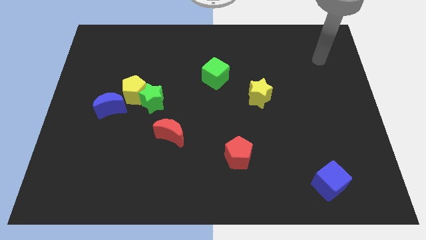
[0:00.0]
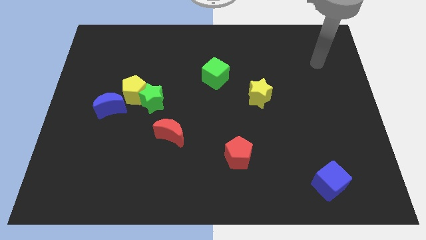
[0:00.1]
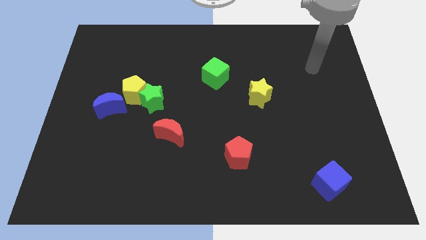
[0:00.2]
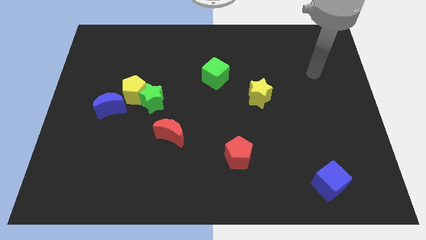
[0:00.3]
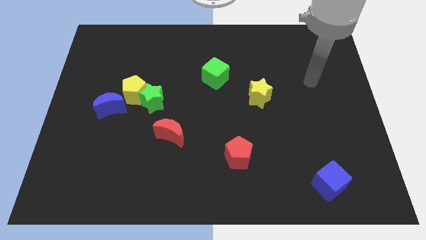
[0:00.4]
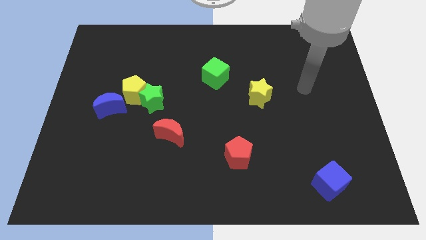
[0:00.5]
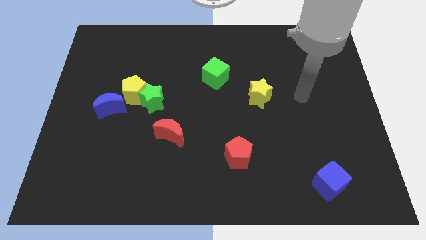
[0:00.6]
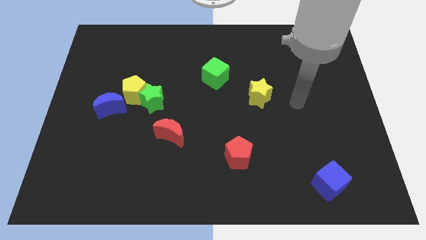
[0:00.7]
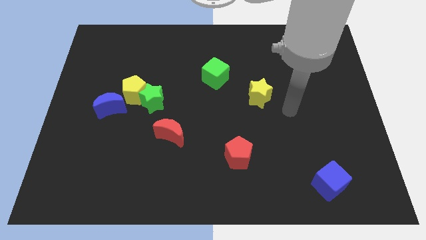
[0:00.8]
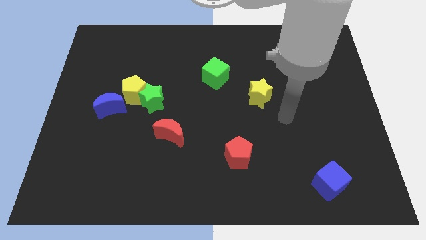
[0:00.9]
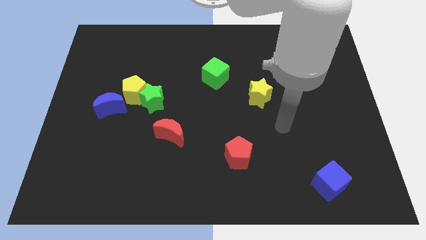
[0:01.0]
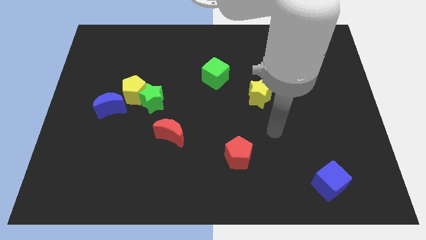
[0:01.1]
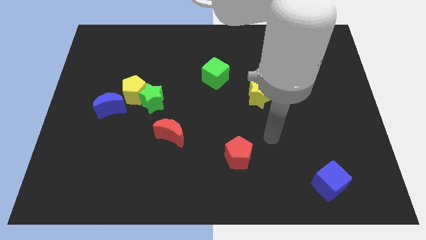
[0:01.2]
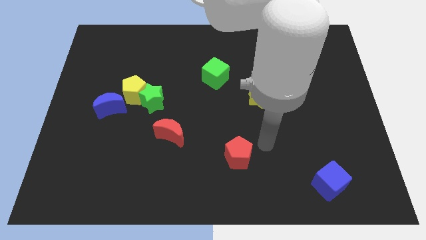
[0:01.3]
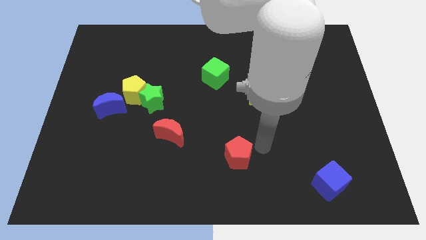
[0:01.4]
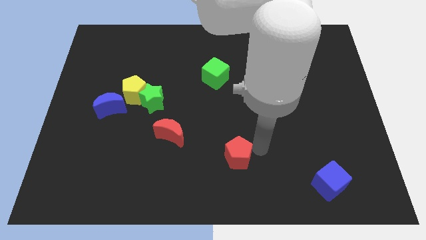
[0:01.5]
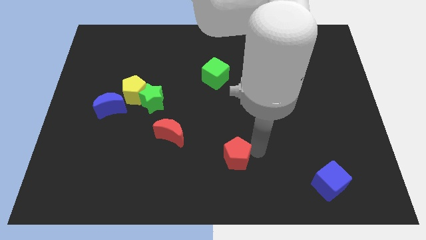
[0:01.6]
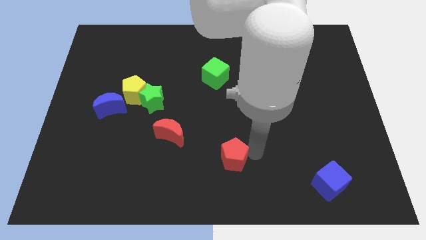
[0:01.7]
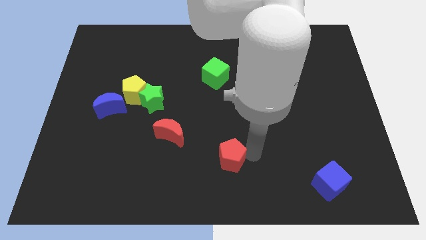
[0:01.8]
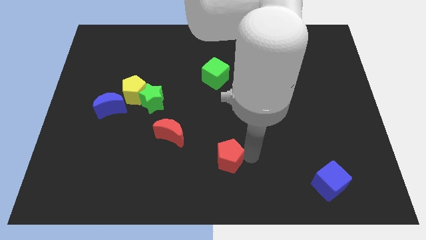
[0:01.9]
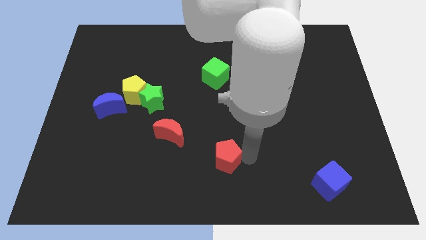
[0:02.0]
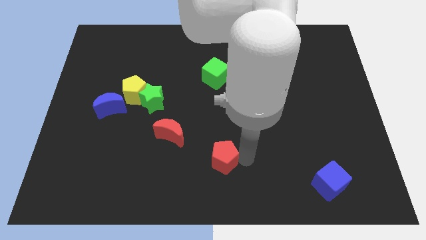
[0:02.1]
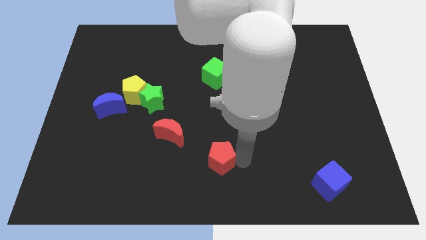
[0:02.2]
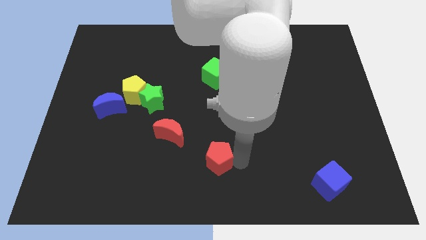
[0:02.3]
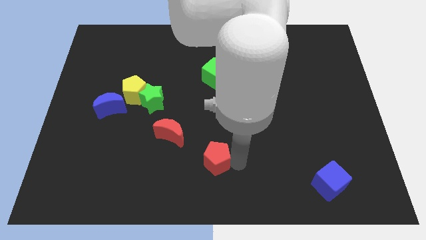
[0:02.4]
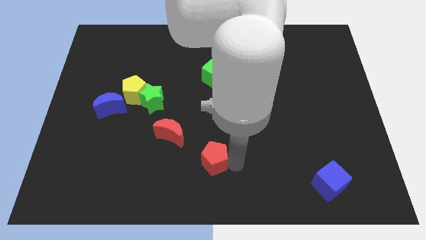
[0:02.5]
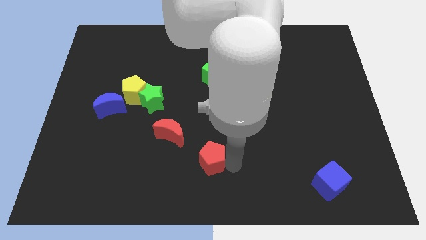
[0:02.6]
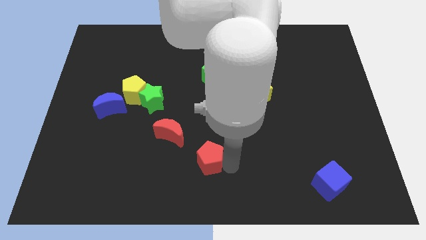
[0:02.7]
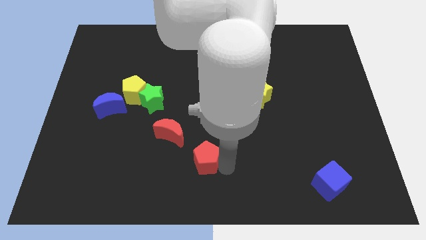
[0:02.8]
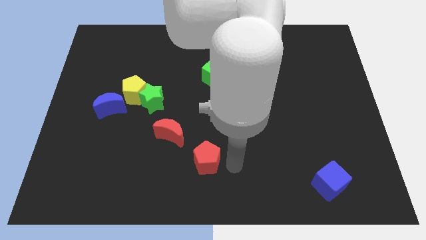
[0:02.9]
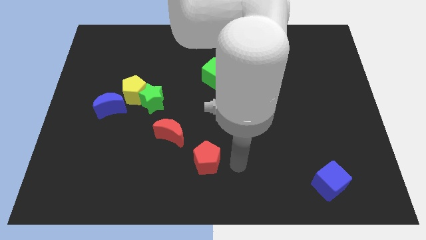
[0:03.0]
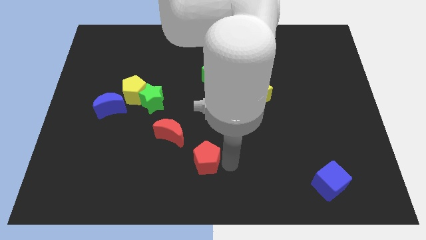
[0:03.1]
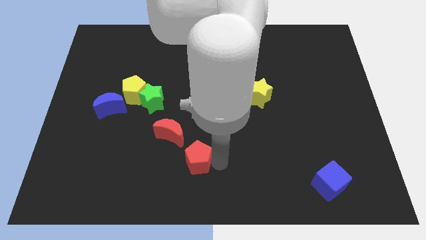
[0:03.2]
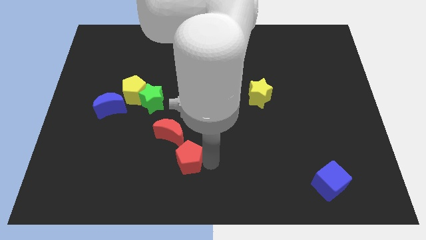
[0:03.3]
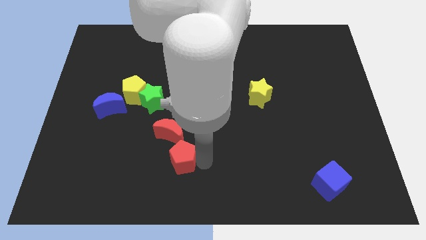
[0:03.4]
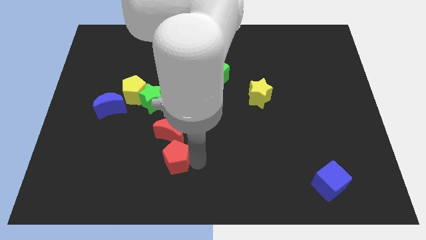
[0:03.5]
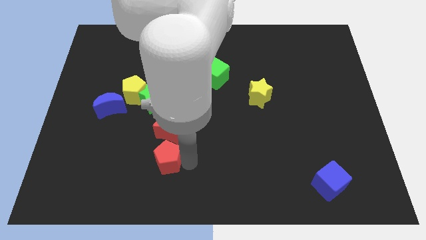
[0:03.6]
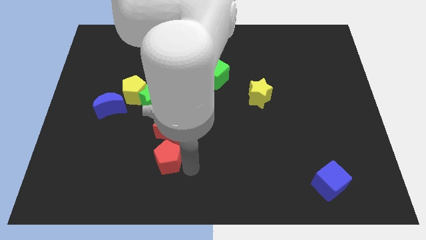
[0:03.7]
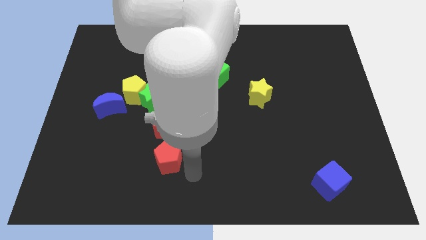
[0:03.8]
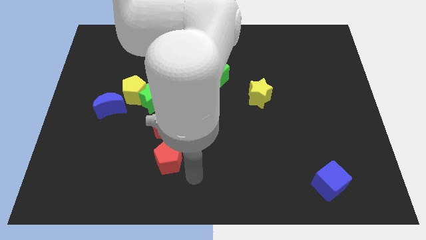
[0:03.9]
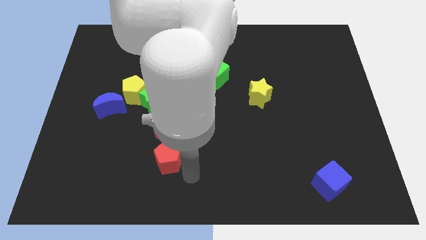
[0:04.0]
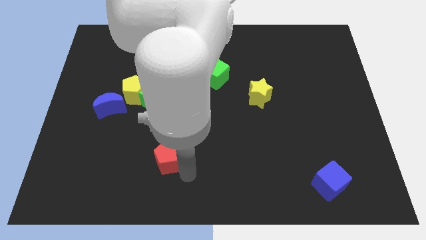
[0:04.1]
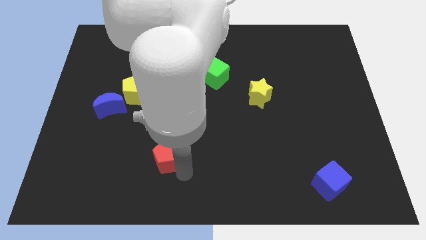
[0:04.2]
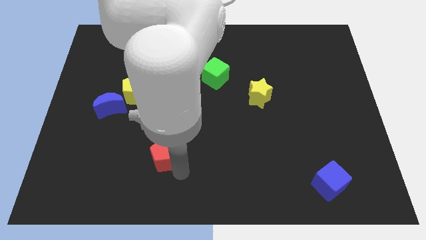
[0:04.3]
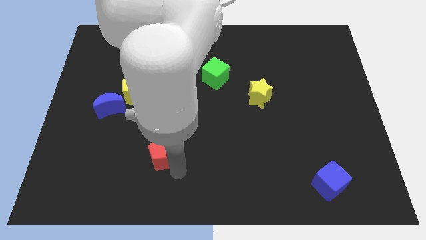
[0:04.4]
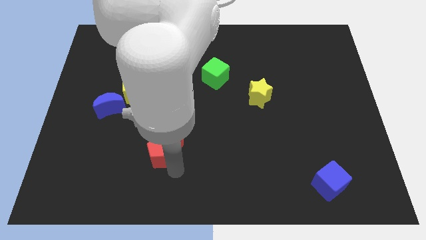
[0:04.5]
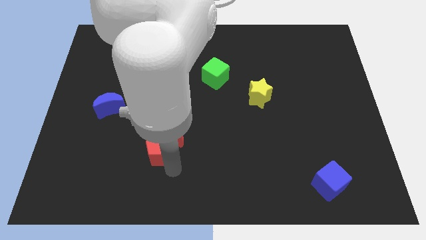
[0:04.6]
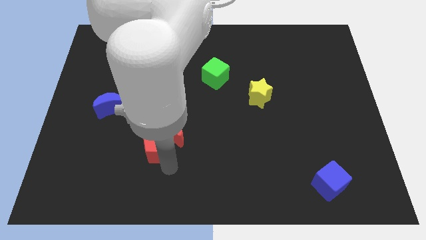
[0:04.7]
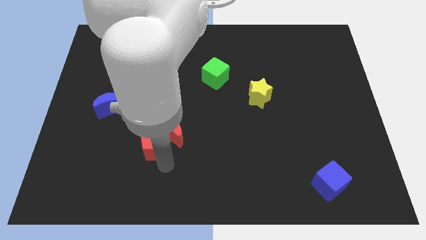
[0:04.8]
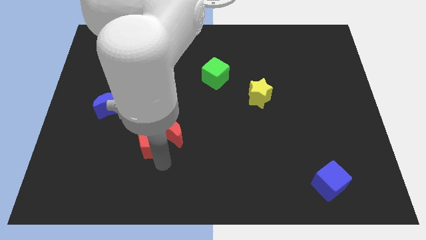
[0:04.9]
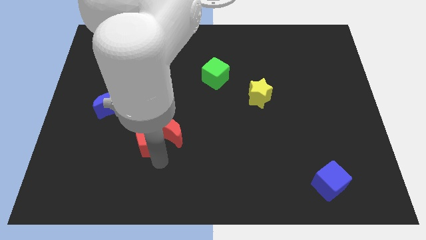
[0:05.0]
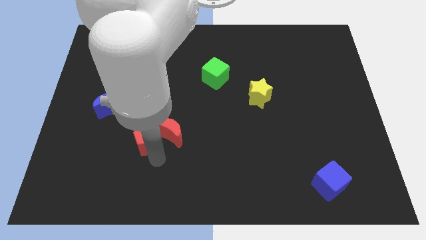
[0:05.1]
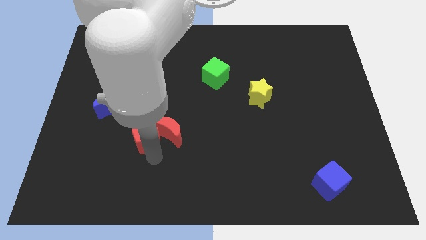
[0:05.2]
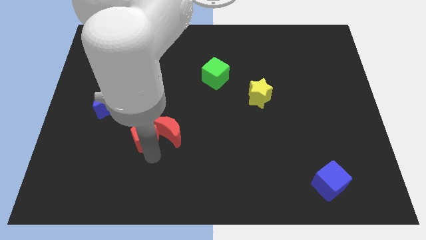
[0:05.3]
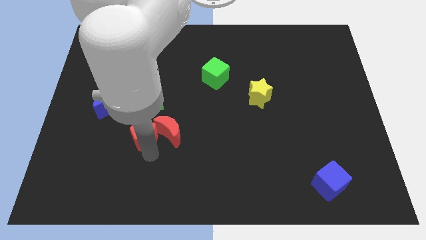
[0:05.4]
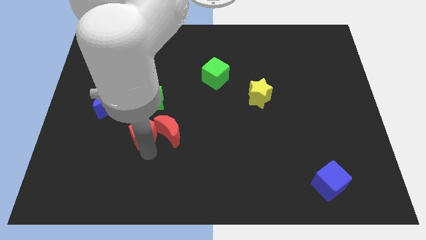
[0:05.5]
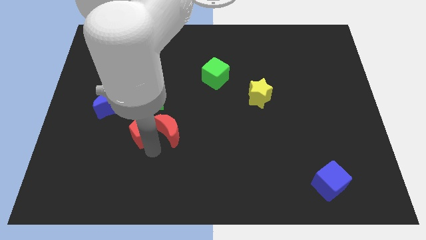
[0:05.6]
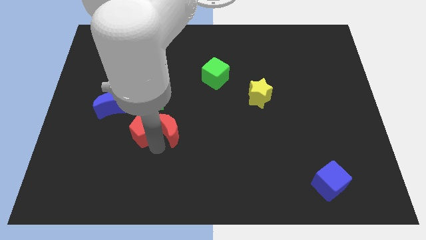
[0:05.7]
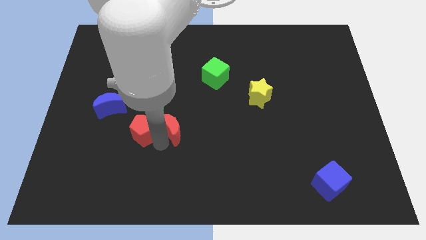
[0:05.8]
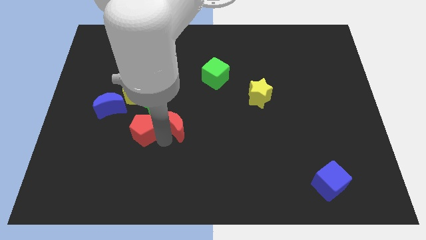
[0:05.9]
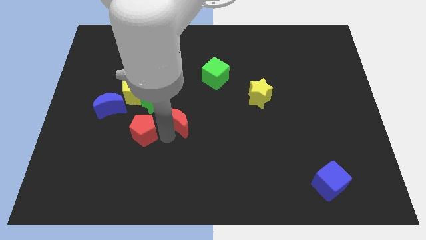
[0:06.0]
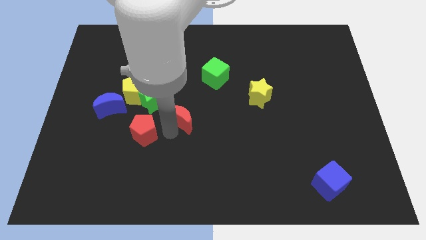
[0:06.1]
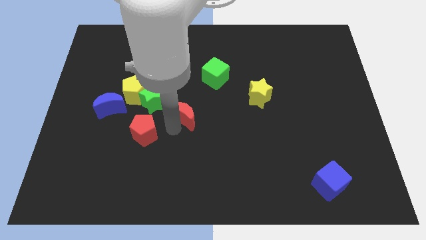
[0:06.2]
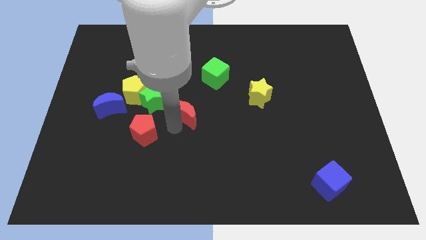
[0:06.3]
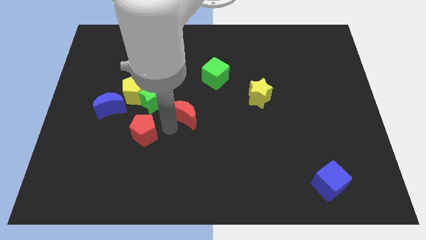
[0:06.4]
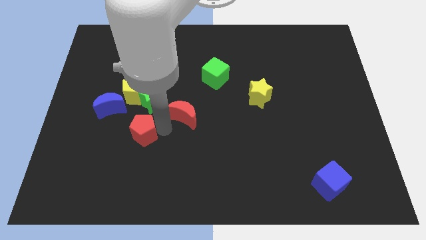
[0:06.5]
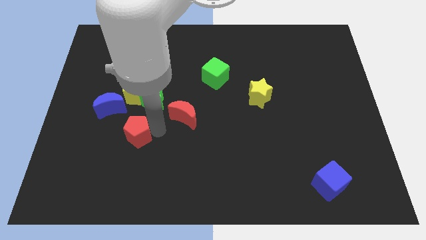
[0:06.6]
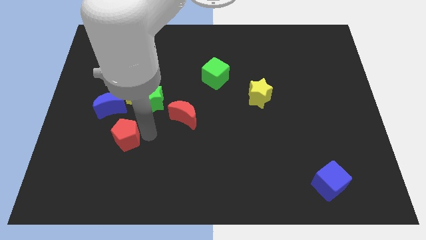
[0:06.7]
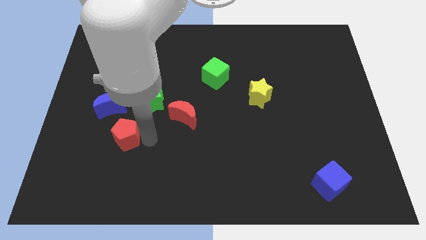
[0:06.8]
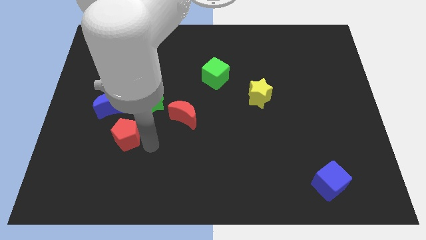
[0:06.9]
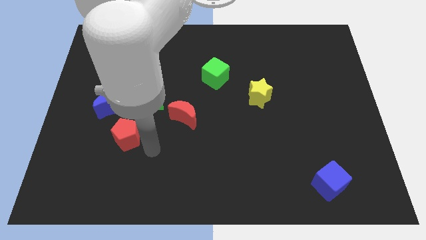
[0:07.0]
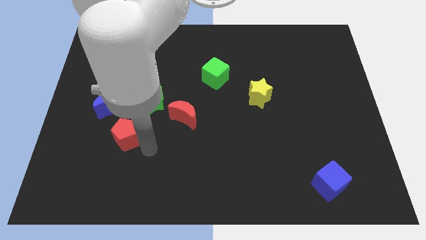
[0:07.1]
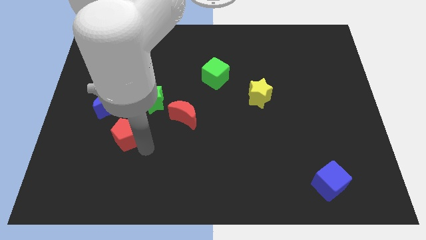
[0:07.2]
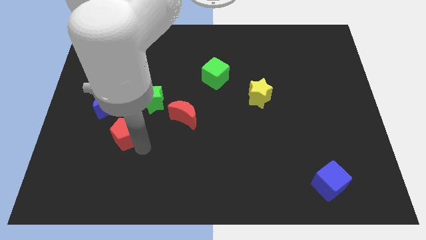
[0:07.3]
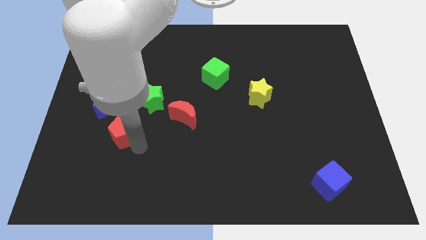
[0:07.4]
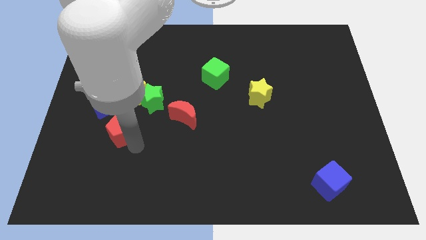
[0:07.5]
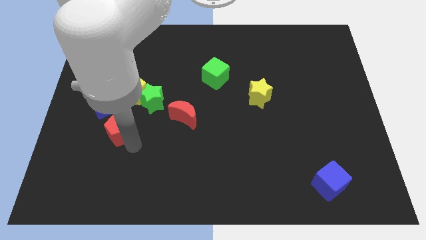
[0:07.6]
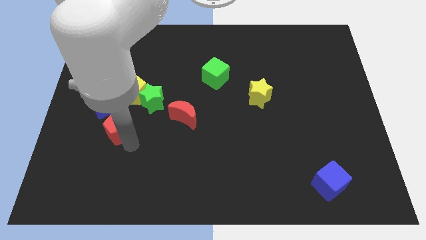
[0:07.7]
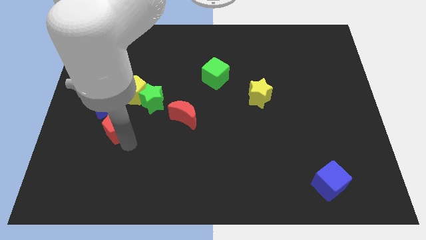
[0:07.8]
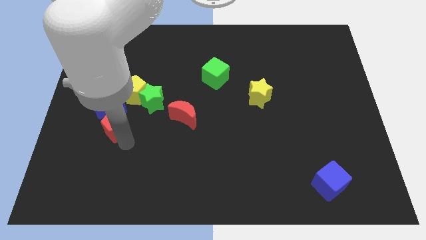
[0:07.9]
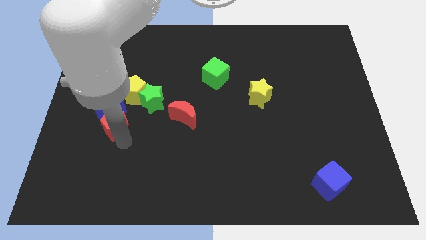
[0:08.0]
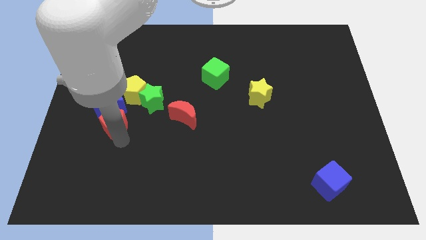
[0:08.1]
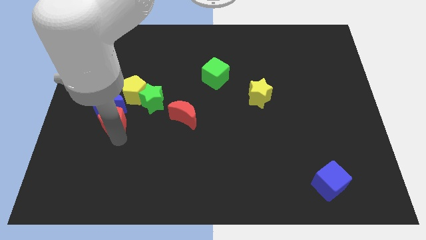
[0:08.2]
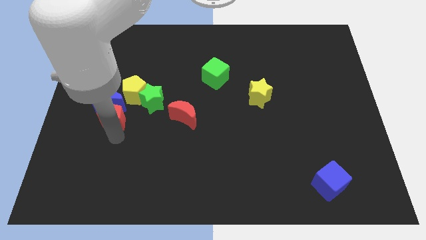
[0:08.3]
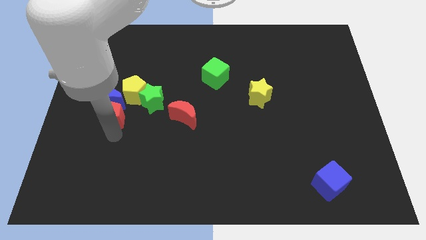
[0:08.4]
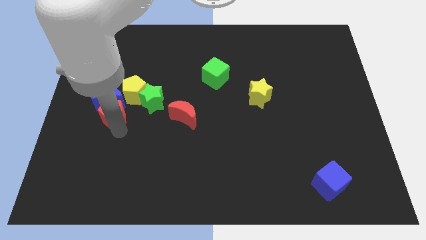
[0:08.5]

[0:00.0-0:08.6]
put the red pentagon just left of the green star
